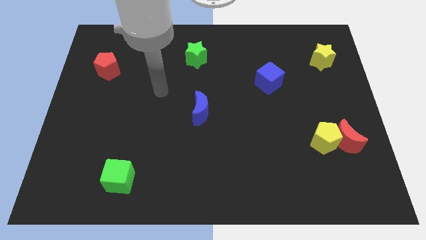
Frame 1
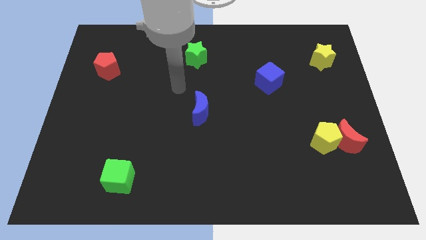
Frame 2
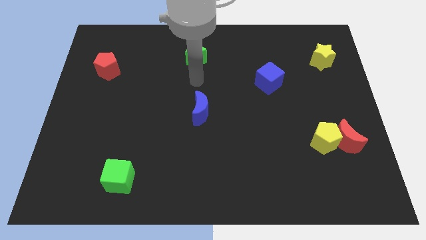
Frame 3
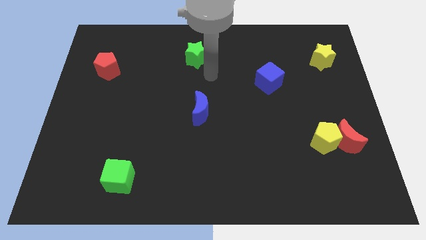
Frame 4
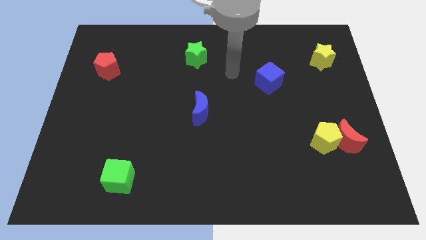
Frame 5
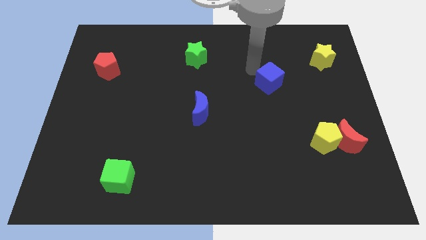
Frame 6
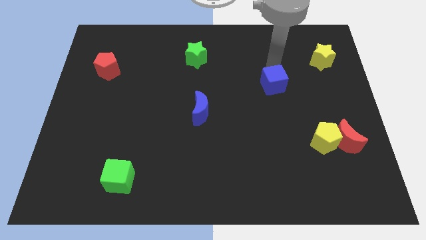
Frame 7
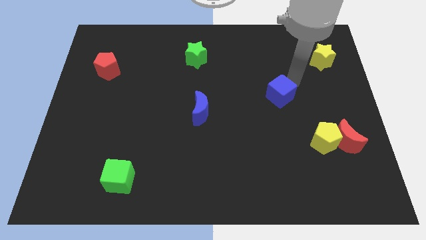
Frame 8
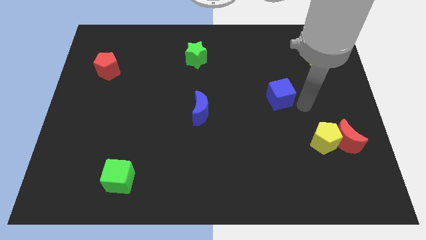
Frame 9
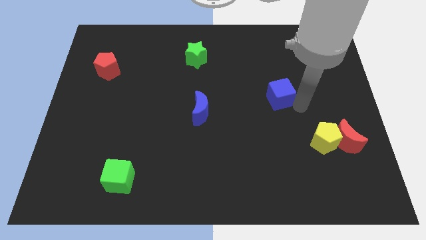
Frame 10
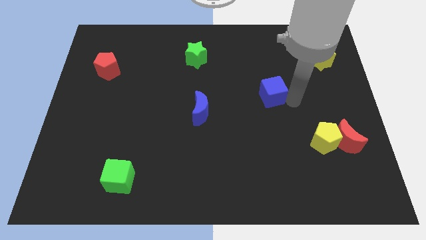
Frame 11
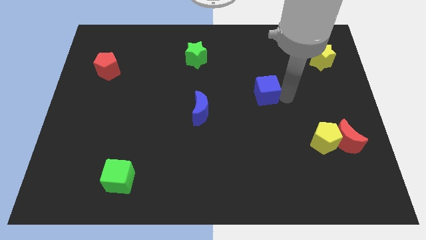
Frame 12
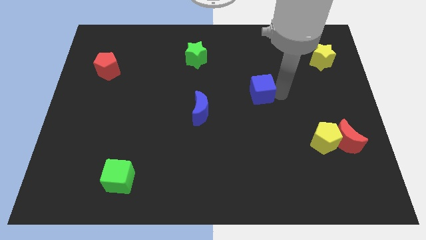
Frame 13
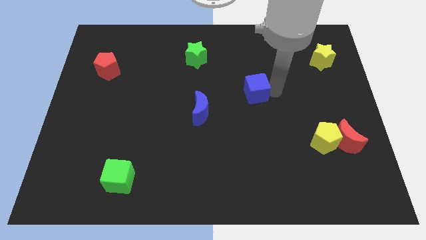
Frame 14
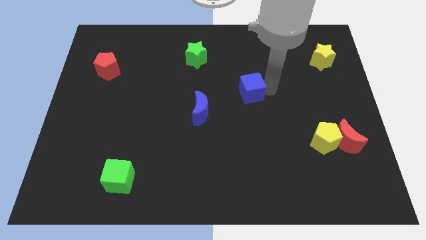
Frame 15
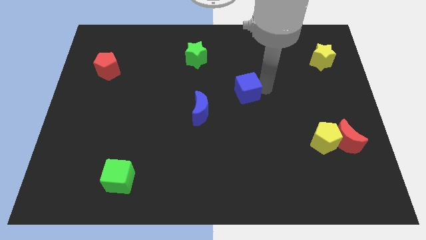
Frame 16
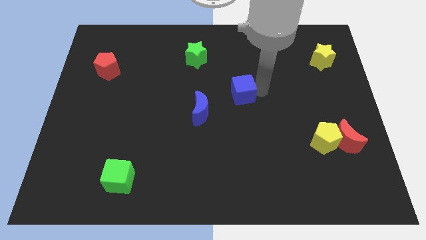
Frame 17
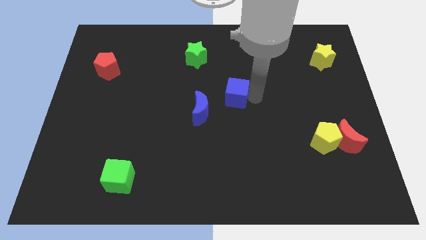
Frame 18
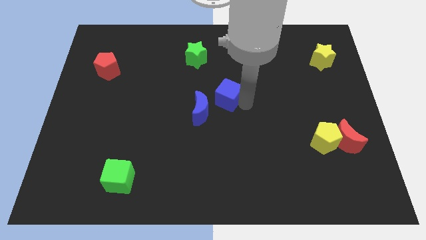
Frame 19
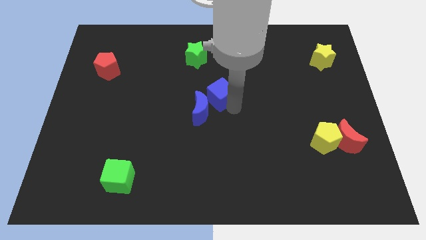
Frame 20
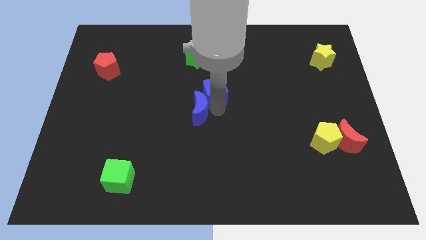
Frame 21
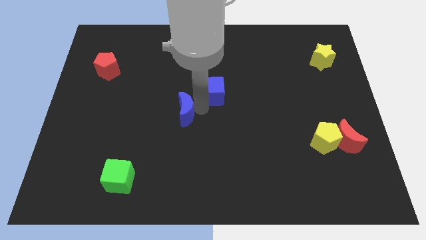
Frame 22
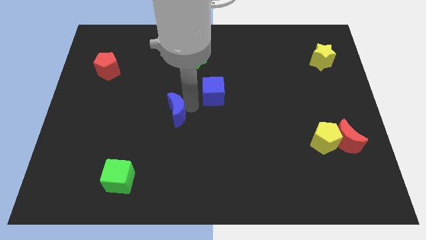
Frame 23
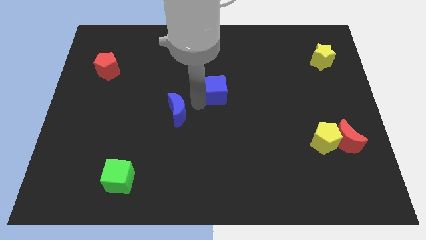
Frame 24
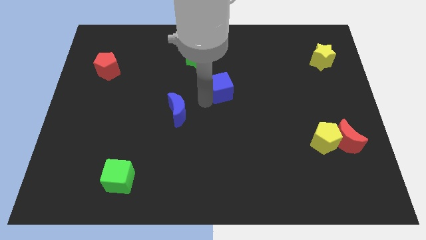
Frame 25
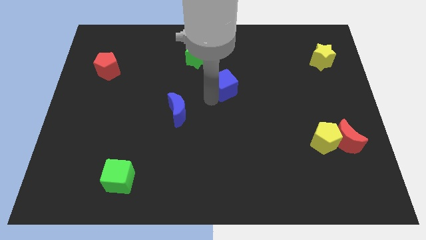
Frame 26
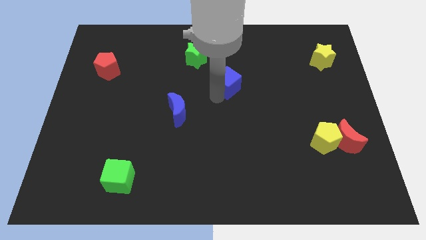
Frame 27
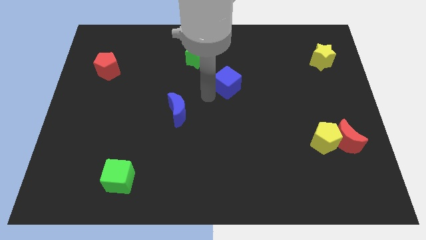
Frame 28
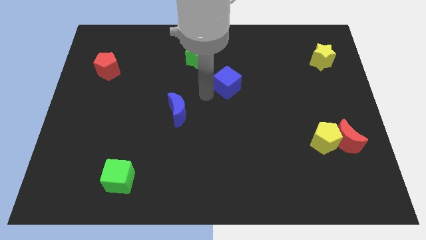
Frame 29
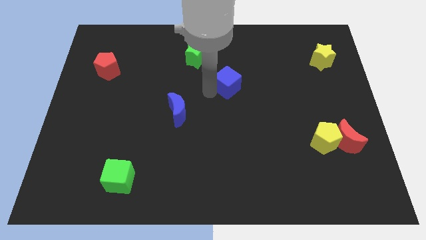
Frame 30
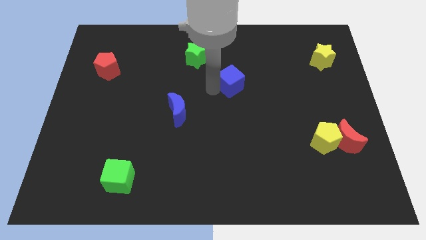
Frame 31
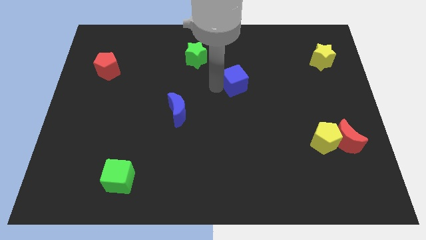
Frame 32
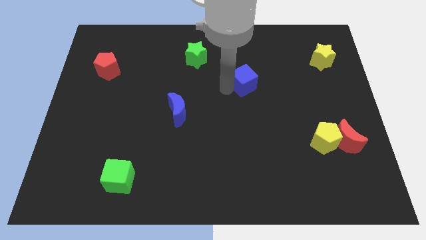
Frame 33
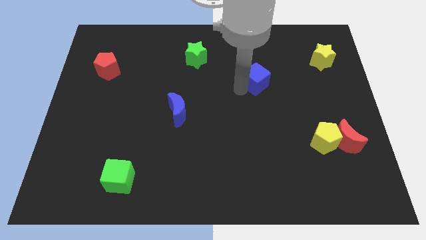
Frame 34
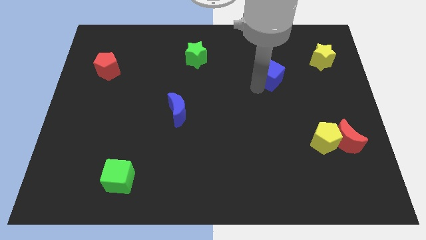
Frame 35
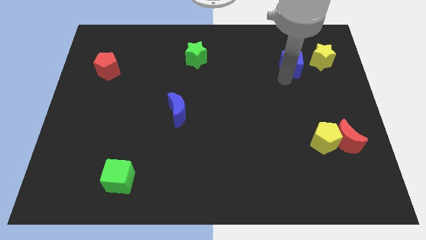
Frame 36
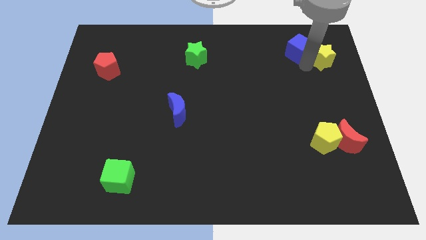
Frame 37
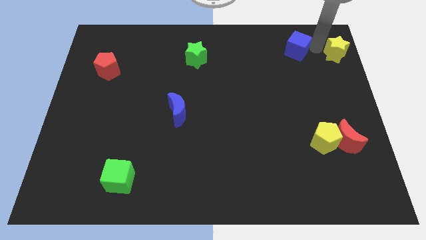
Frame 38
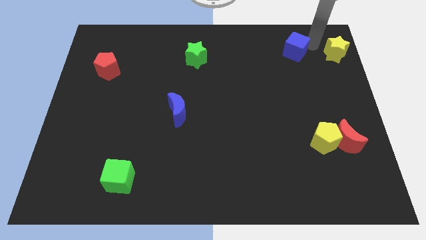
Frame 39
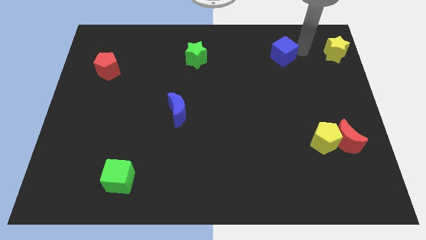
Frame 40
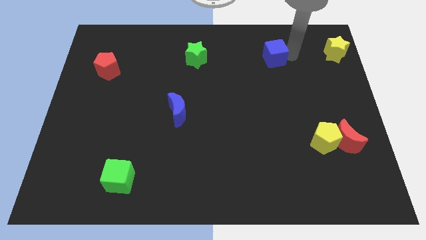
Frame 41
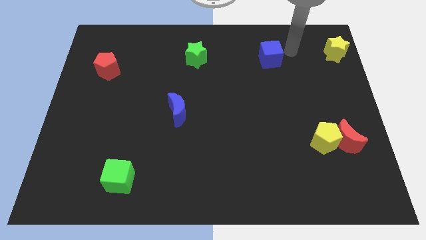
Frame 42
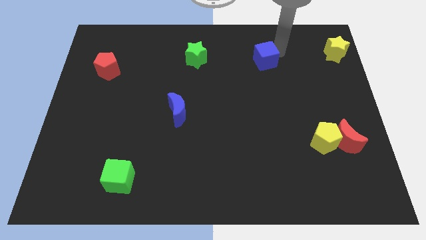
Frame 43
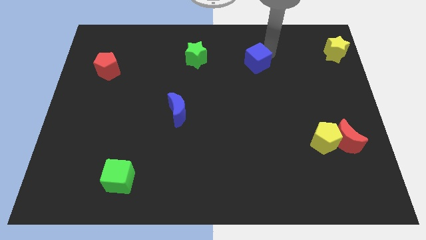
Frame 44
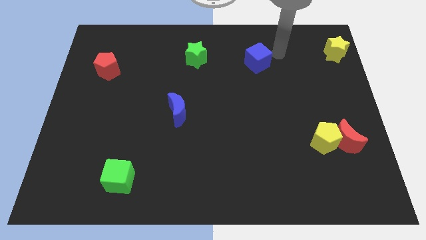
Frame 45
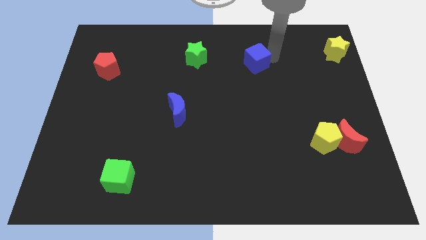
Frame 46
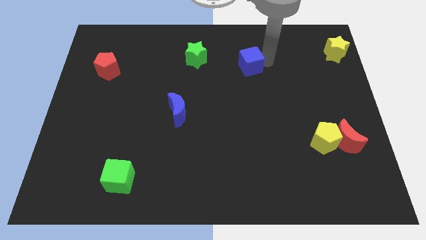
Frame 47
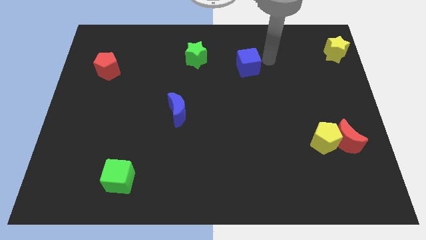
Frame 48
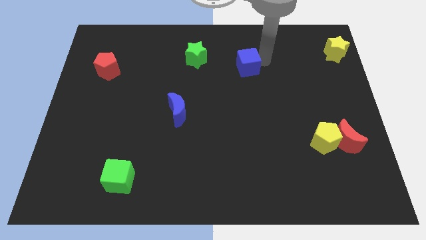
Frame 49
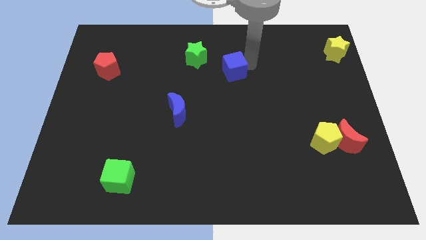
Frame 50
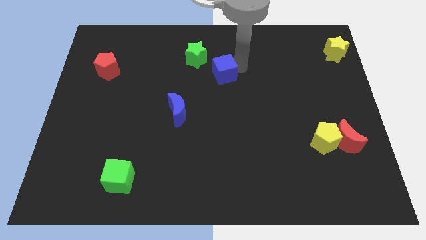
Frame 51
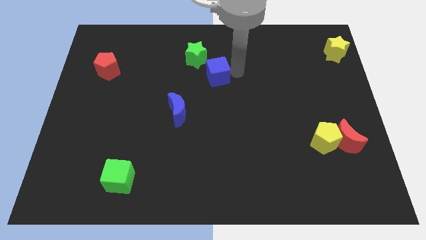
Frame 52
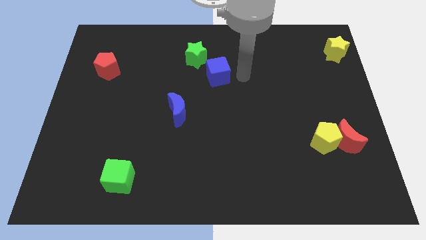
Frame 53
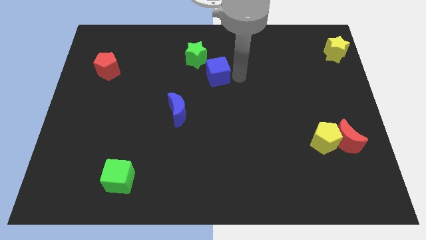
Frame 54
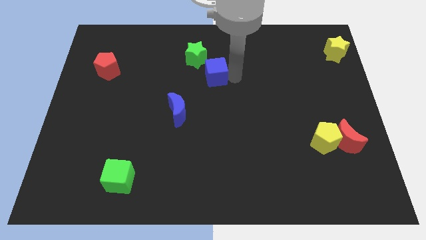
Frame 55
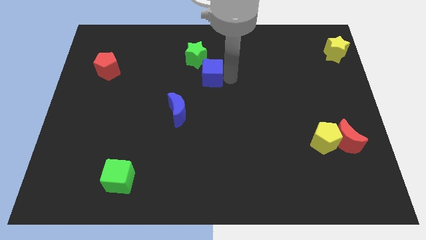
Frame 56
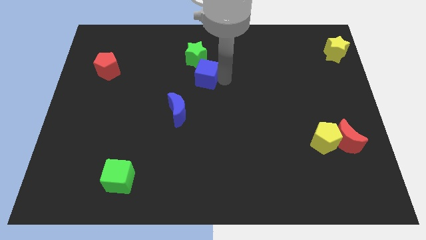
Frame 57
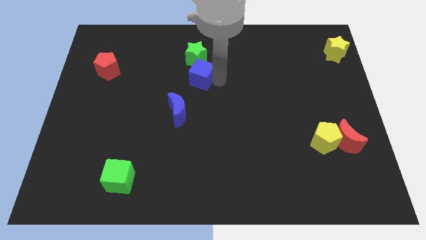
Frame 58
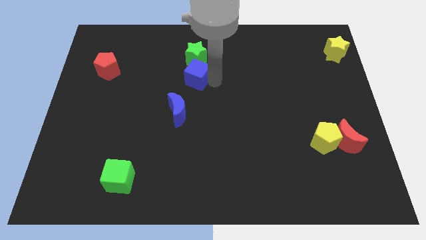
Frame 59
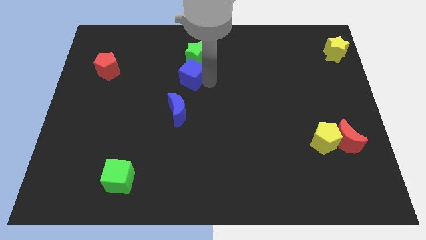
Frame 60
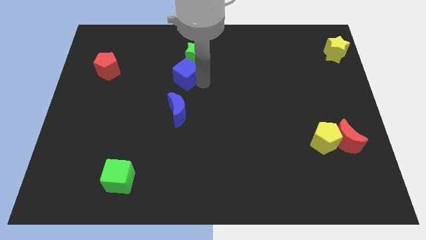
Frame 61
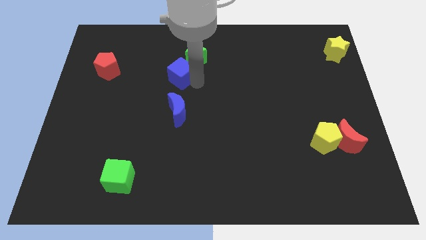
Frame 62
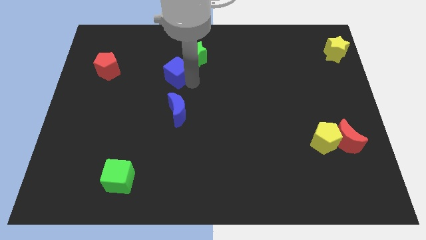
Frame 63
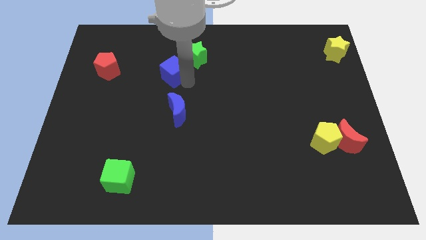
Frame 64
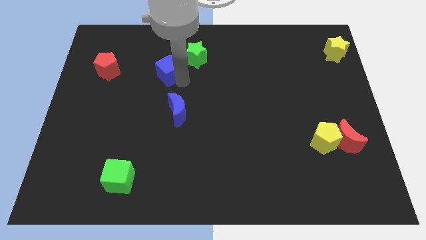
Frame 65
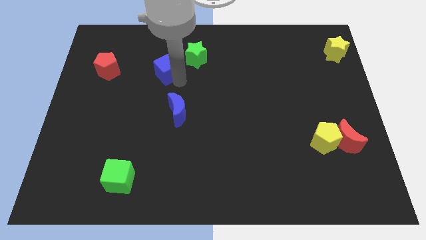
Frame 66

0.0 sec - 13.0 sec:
move the blue cube to the left of the green star

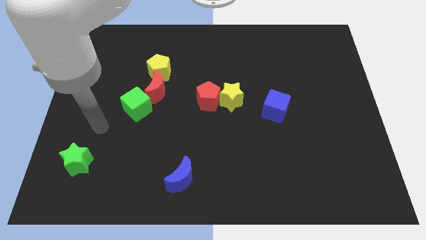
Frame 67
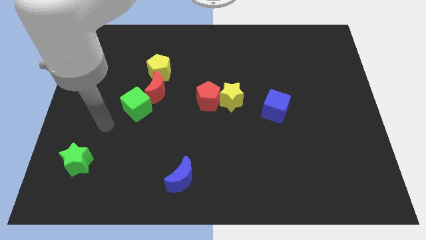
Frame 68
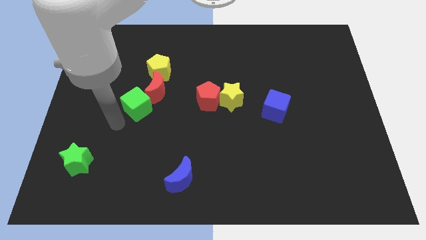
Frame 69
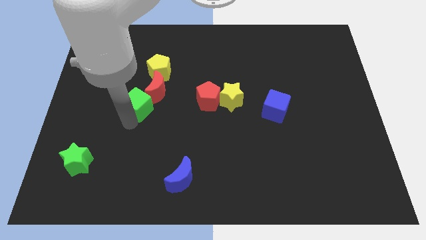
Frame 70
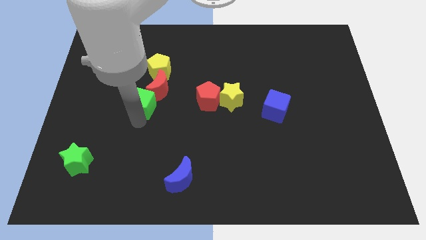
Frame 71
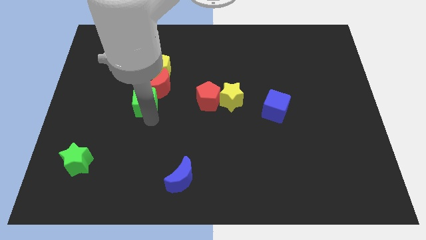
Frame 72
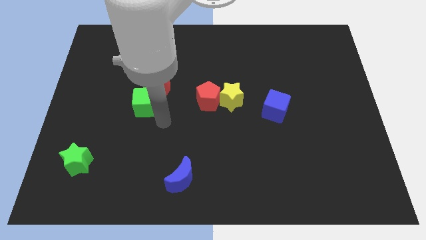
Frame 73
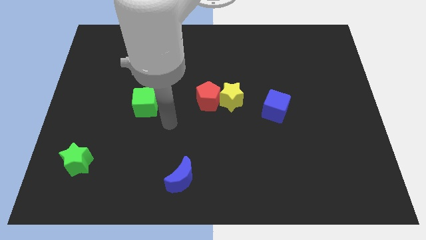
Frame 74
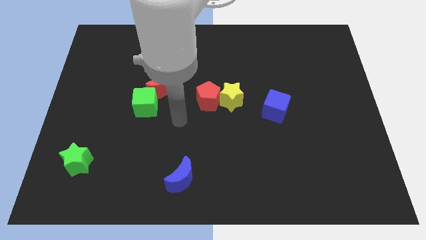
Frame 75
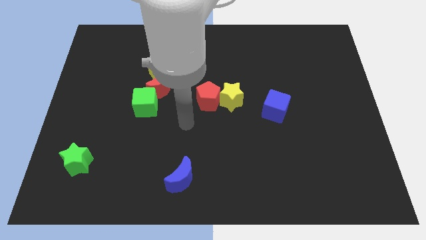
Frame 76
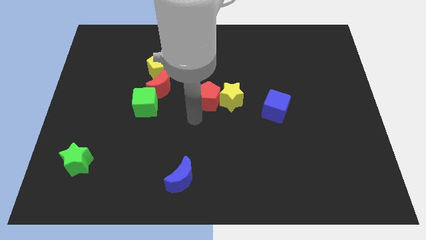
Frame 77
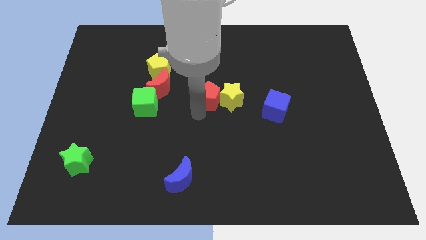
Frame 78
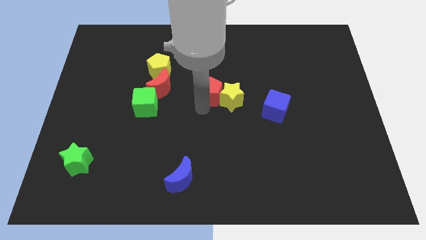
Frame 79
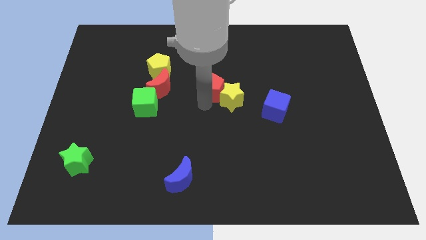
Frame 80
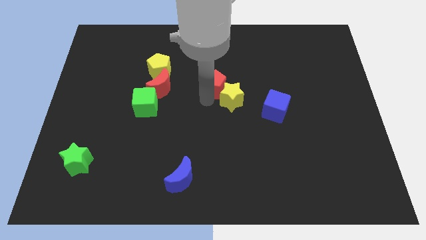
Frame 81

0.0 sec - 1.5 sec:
move the red pentagon to the top side of the yellow star
